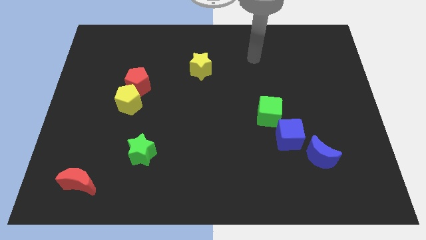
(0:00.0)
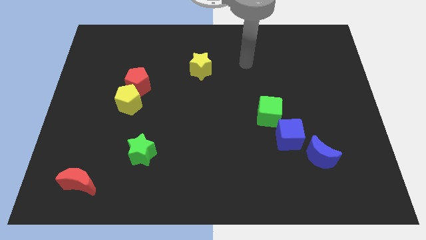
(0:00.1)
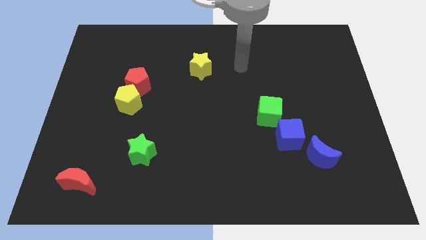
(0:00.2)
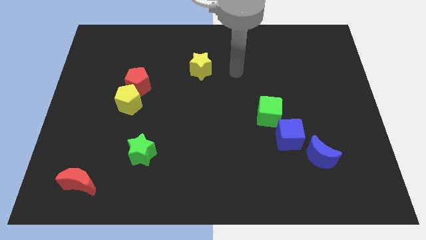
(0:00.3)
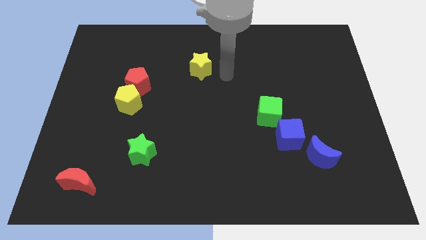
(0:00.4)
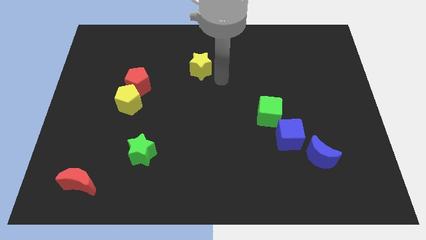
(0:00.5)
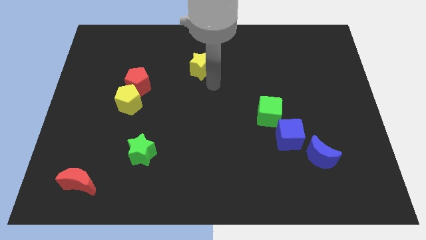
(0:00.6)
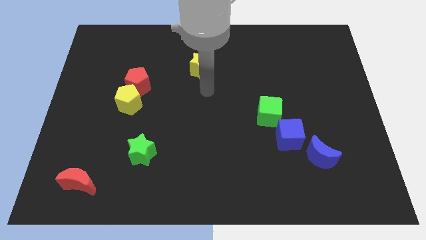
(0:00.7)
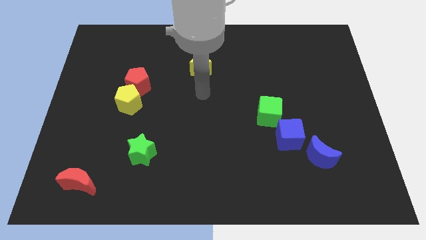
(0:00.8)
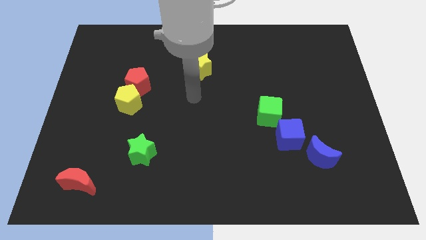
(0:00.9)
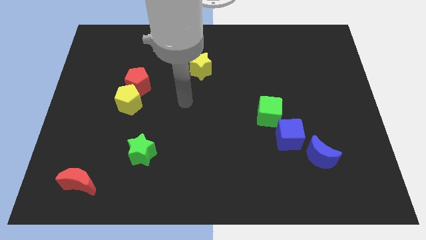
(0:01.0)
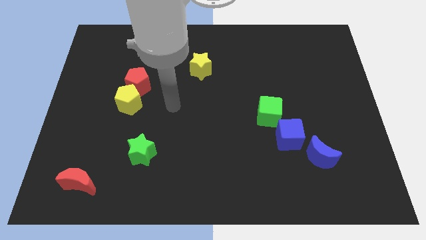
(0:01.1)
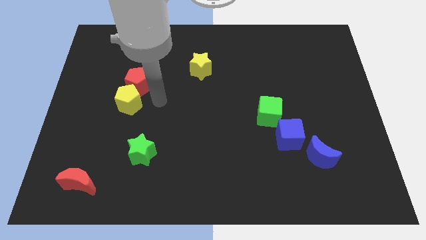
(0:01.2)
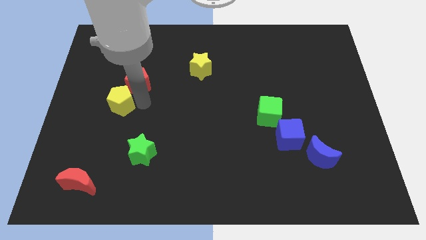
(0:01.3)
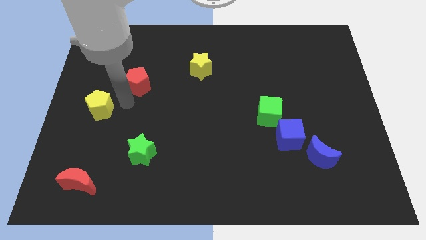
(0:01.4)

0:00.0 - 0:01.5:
separate the red pentagon from the yellow pentagon

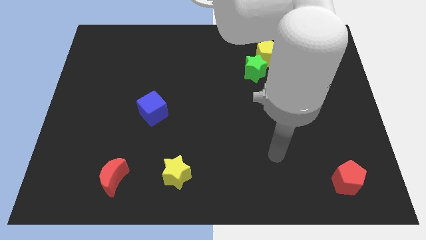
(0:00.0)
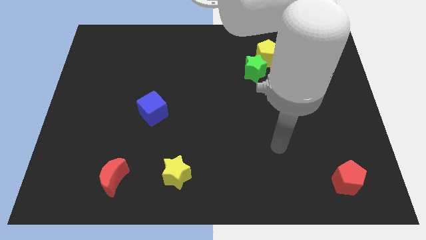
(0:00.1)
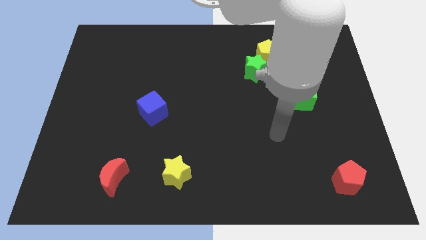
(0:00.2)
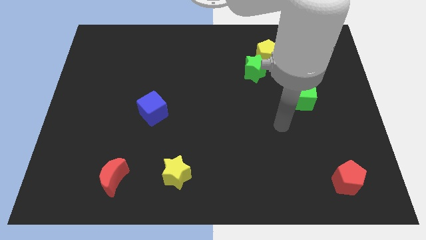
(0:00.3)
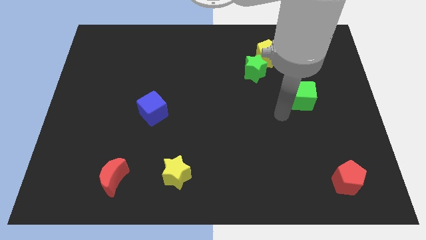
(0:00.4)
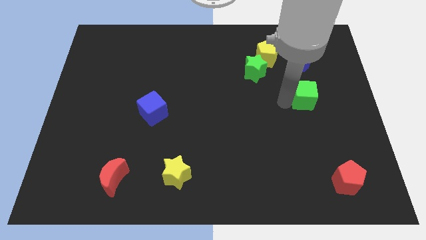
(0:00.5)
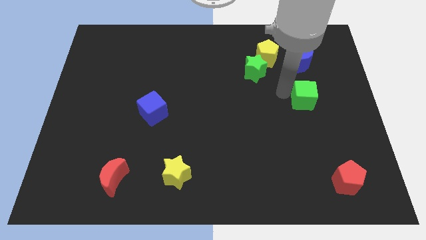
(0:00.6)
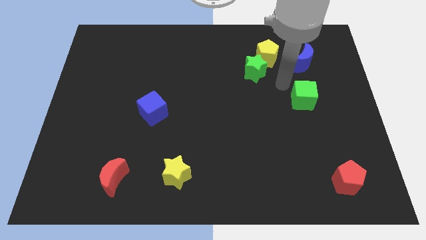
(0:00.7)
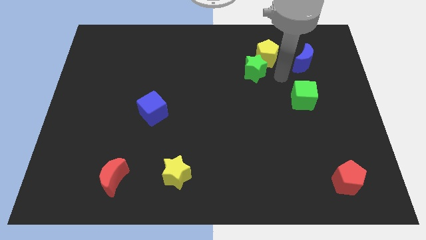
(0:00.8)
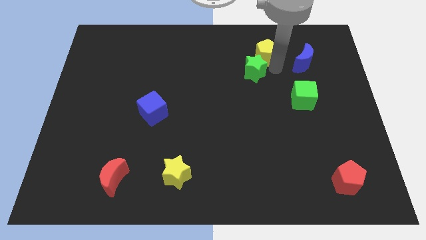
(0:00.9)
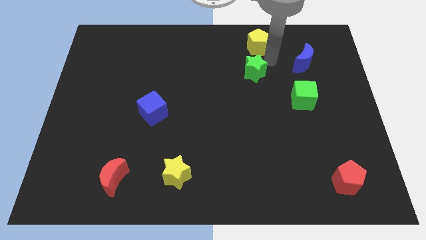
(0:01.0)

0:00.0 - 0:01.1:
move the green star away from the yellow pentagon

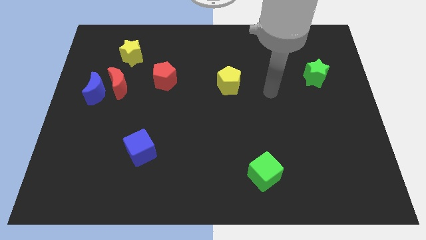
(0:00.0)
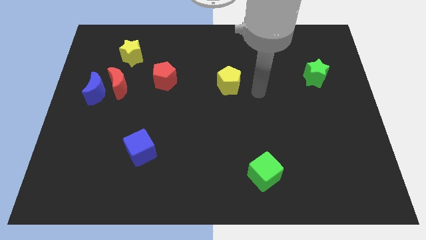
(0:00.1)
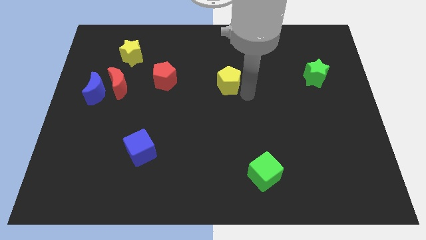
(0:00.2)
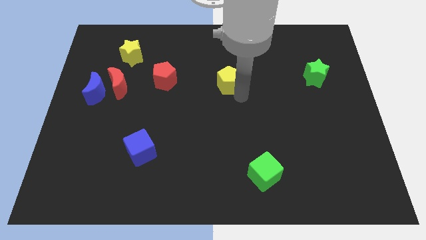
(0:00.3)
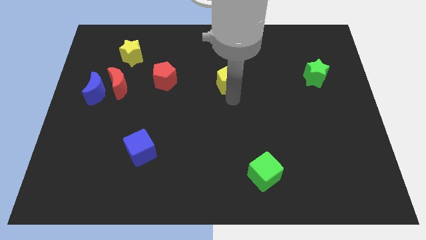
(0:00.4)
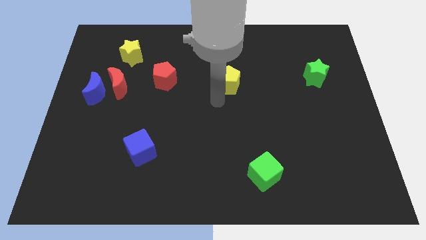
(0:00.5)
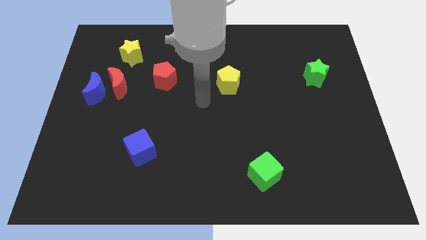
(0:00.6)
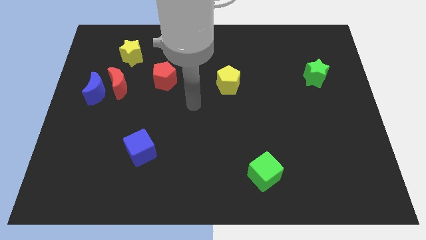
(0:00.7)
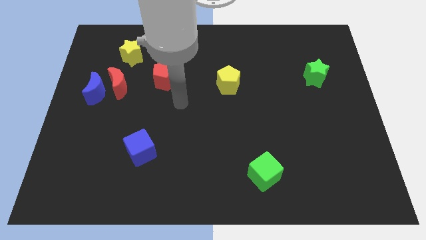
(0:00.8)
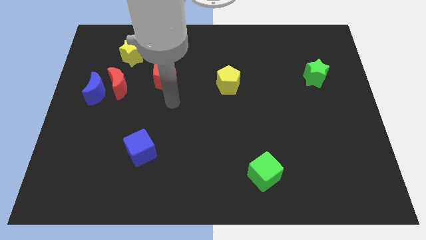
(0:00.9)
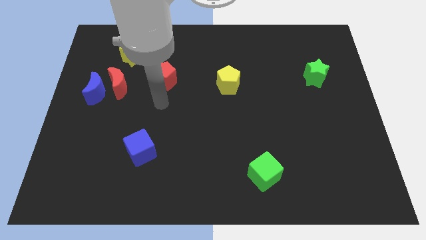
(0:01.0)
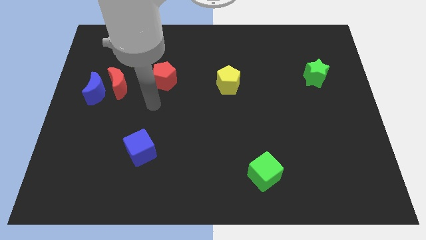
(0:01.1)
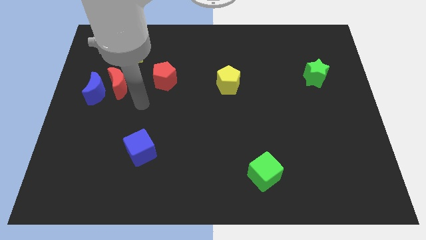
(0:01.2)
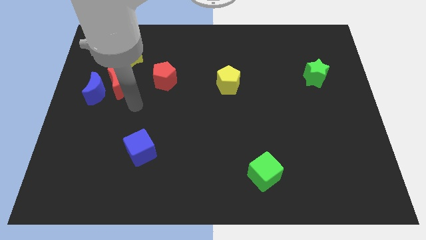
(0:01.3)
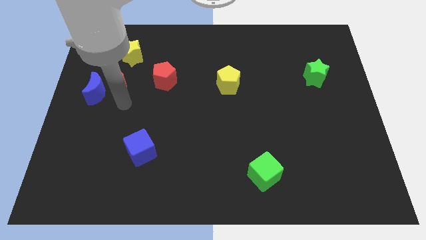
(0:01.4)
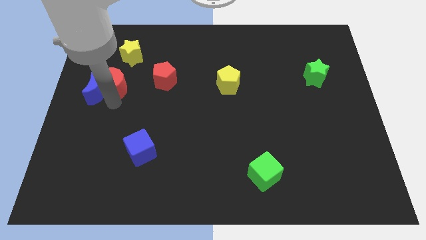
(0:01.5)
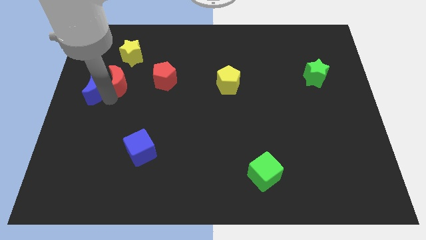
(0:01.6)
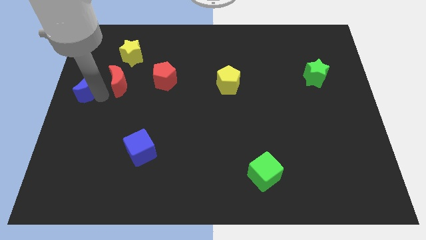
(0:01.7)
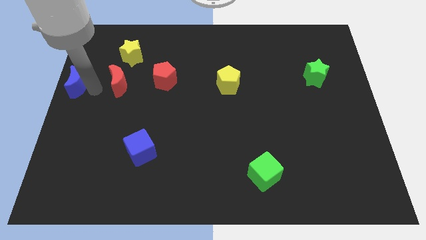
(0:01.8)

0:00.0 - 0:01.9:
move the red moon away from the blue moon

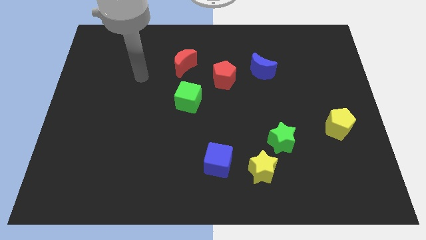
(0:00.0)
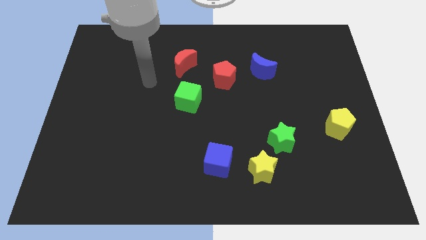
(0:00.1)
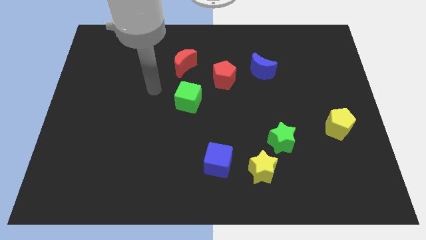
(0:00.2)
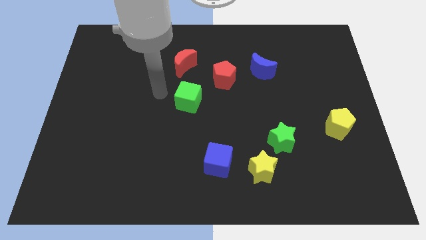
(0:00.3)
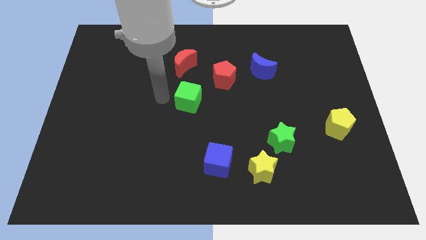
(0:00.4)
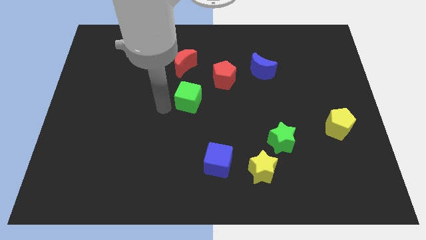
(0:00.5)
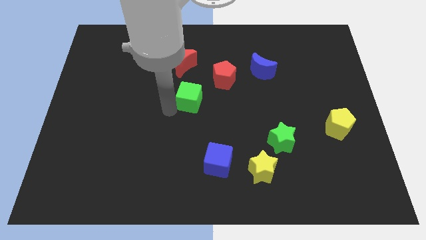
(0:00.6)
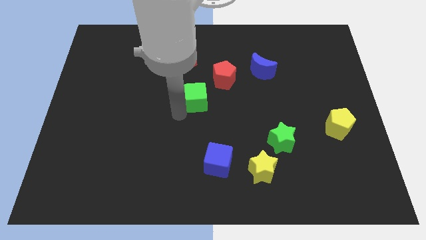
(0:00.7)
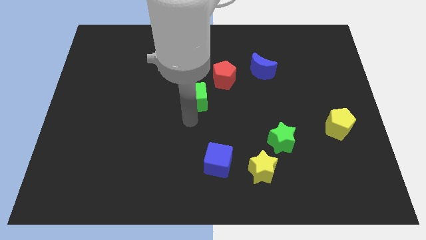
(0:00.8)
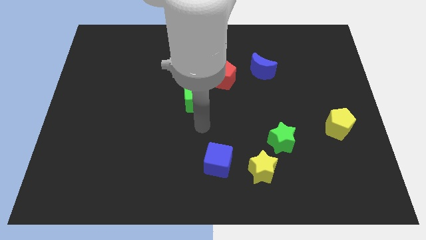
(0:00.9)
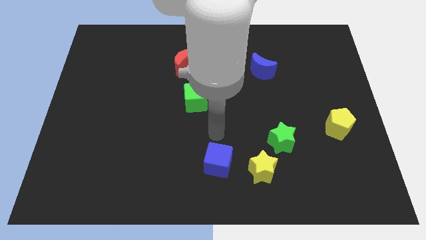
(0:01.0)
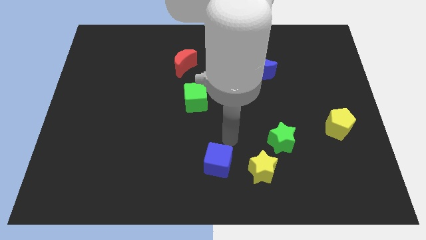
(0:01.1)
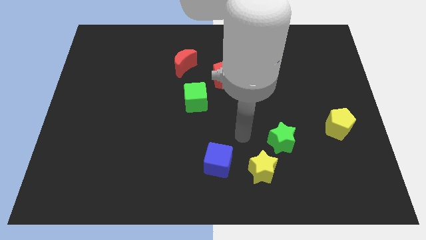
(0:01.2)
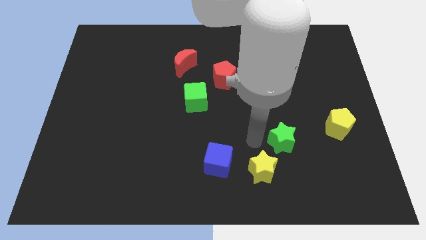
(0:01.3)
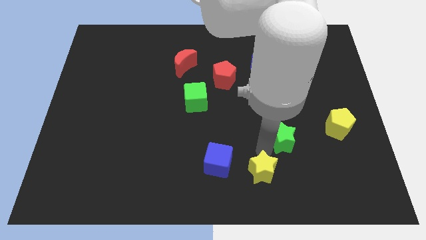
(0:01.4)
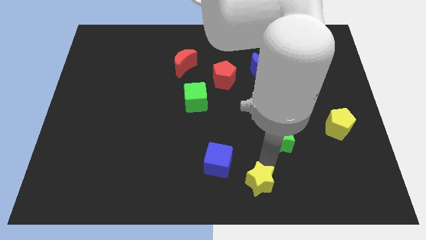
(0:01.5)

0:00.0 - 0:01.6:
pull the green star apart from the yellow star

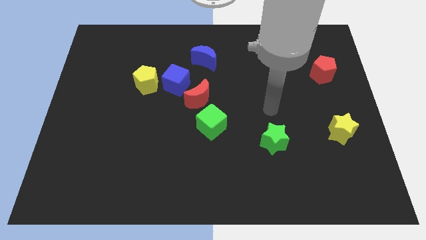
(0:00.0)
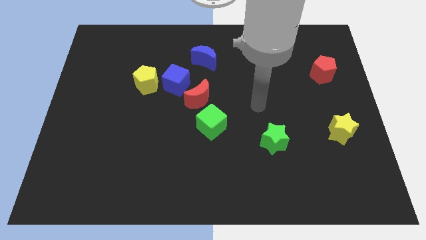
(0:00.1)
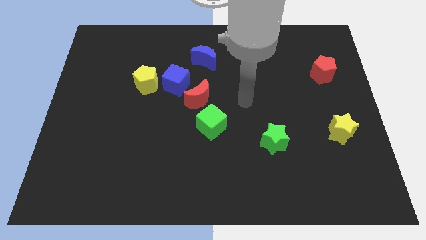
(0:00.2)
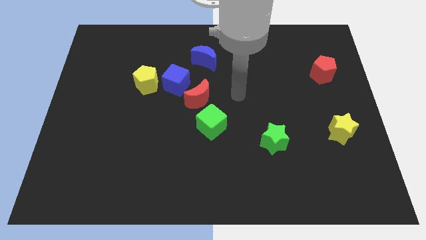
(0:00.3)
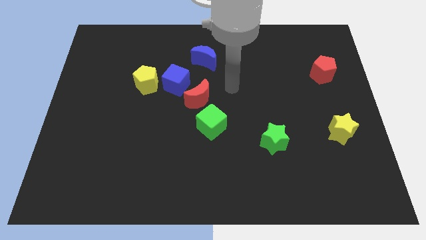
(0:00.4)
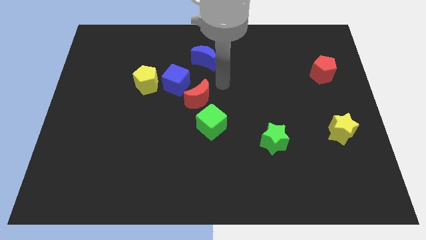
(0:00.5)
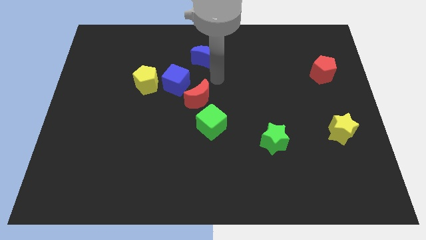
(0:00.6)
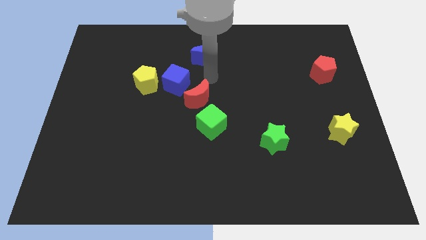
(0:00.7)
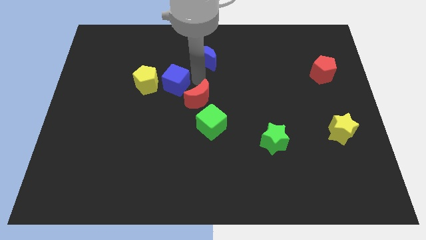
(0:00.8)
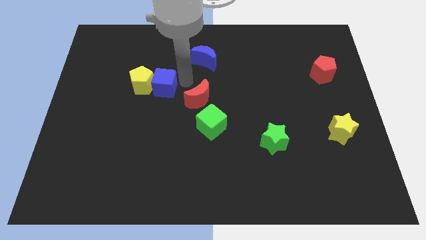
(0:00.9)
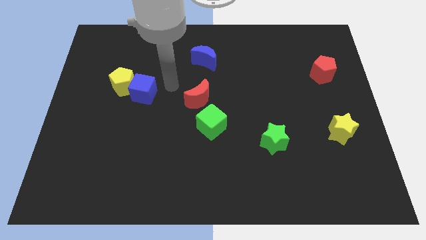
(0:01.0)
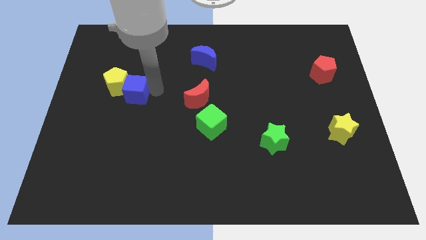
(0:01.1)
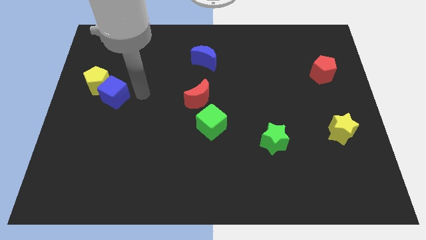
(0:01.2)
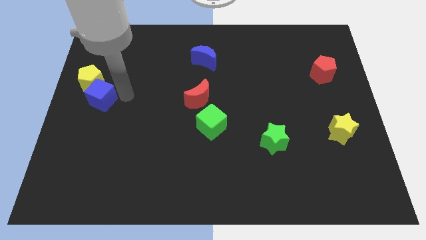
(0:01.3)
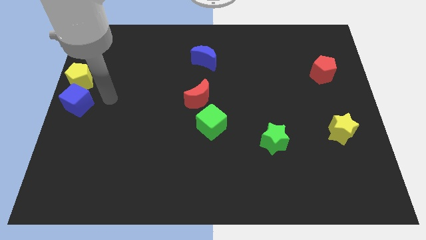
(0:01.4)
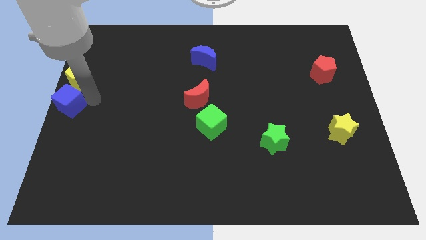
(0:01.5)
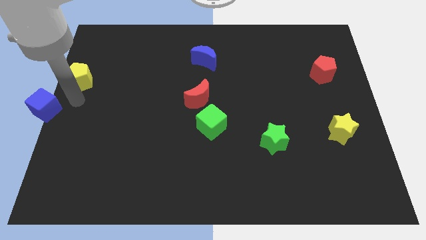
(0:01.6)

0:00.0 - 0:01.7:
pull the yellow pentagon apart from the blue cube

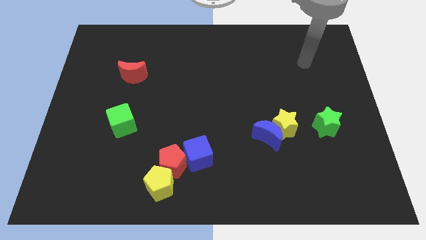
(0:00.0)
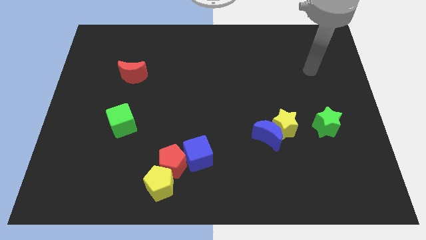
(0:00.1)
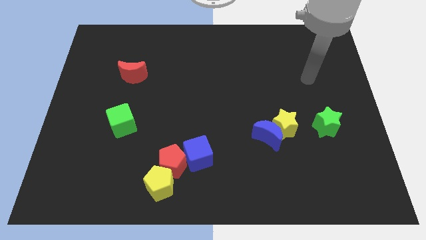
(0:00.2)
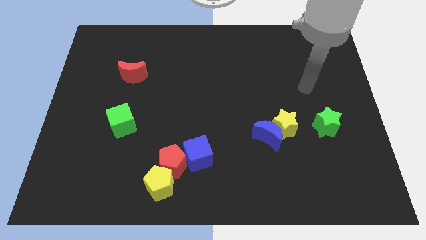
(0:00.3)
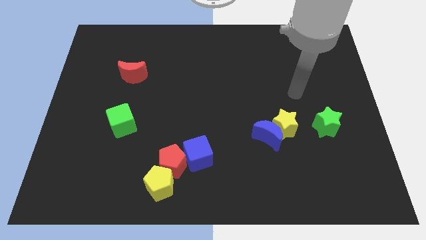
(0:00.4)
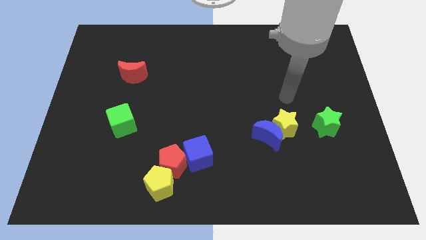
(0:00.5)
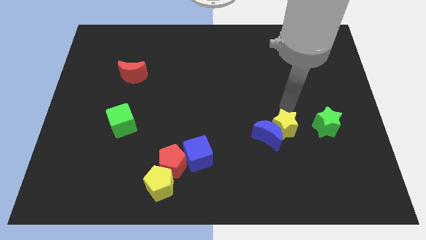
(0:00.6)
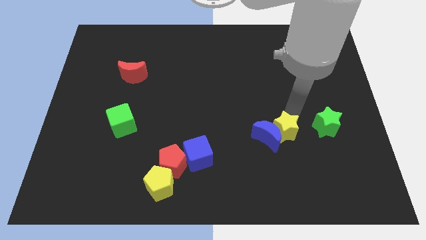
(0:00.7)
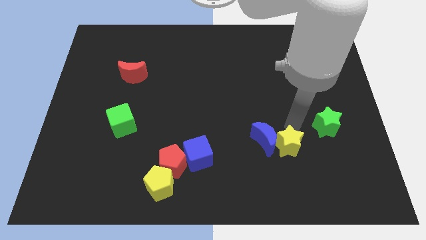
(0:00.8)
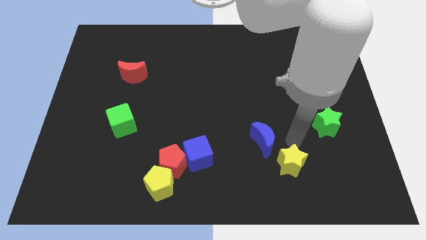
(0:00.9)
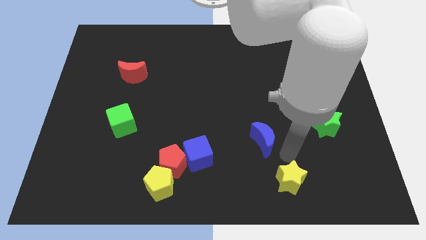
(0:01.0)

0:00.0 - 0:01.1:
pull the blue moon apart from the yellow star

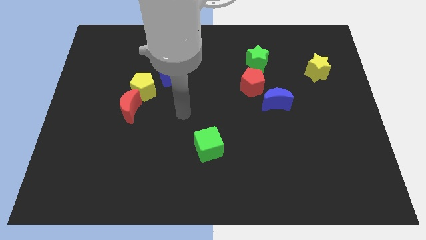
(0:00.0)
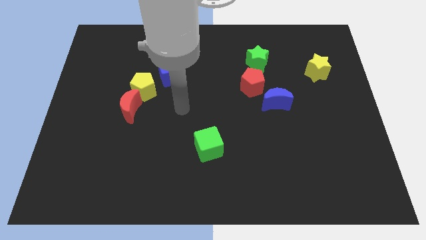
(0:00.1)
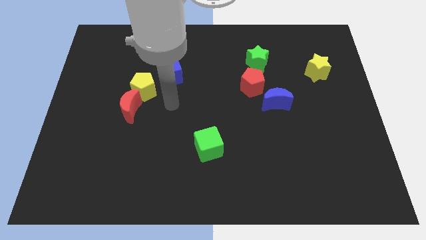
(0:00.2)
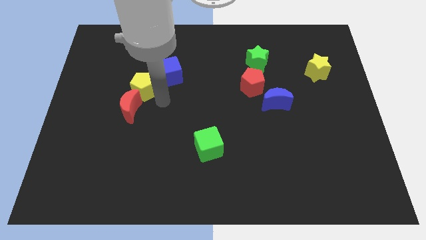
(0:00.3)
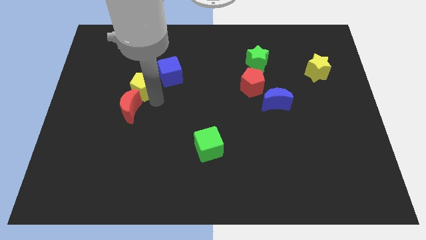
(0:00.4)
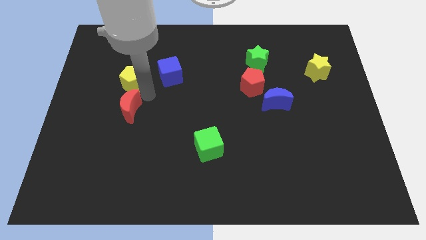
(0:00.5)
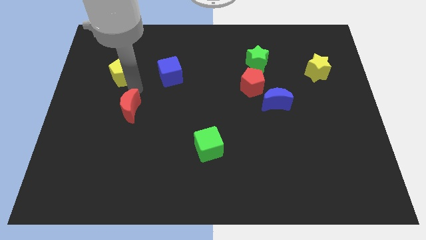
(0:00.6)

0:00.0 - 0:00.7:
move the red moon away from the yellow pentagon
